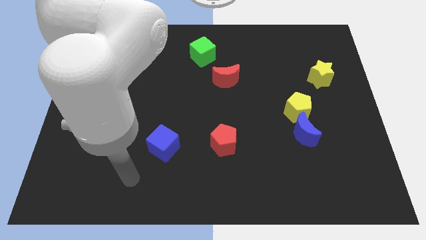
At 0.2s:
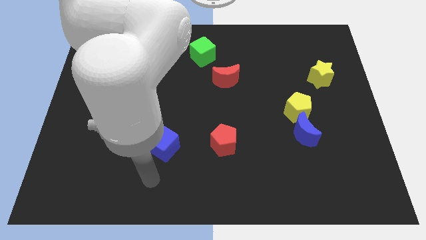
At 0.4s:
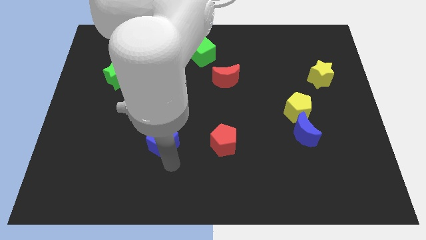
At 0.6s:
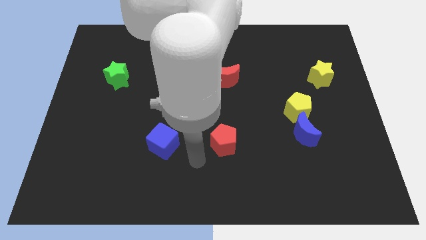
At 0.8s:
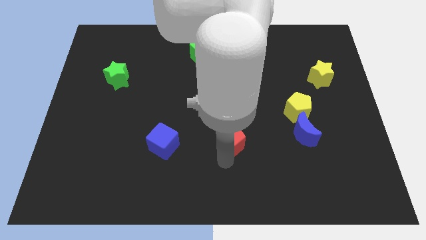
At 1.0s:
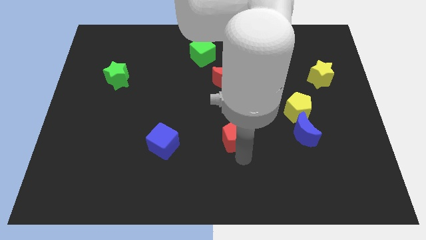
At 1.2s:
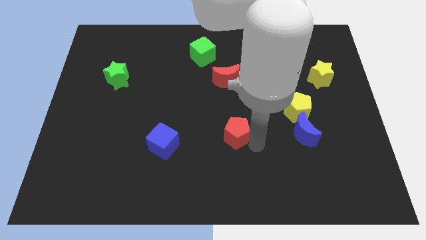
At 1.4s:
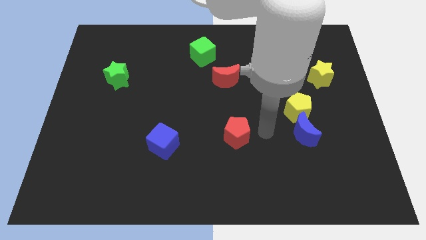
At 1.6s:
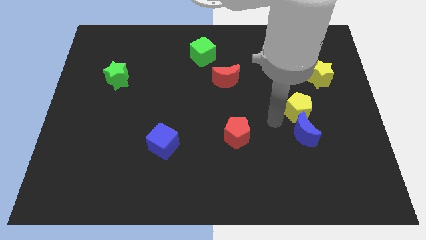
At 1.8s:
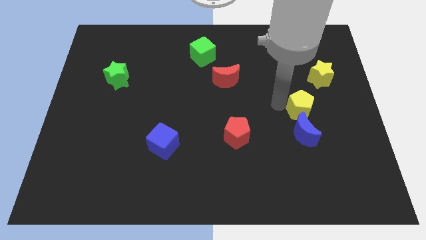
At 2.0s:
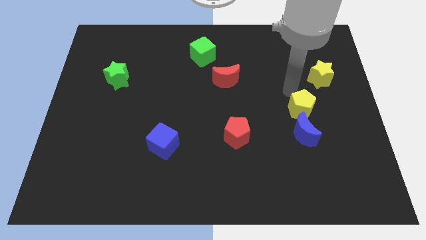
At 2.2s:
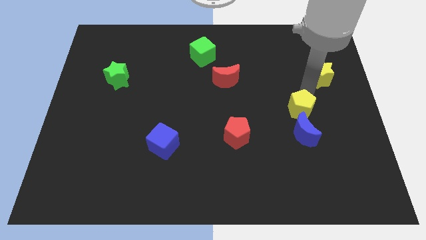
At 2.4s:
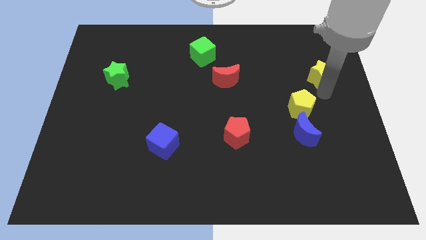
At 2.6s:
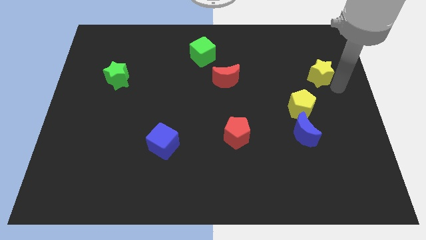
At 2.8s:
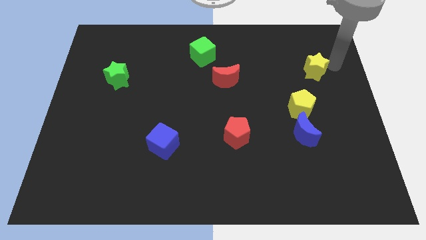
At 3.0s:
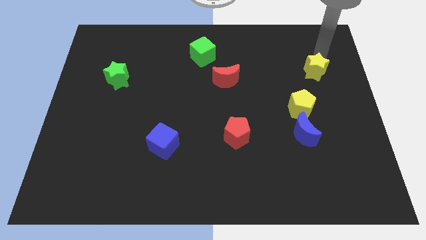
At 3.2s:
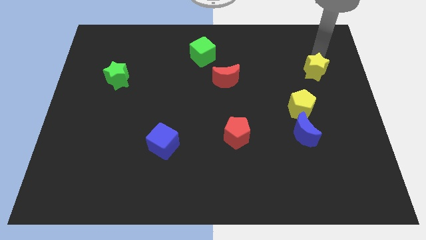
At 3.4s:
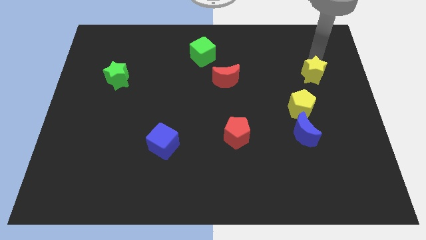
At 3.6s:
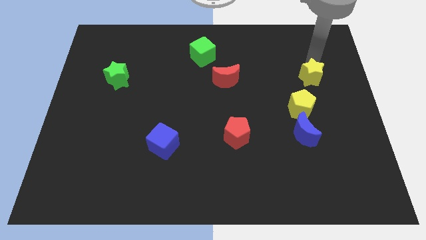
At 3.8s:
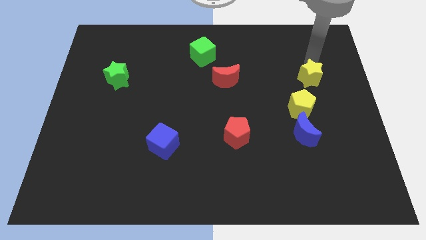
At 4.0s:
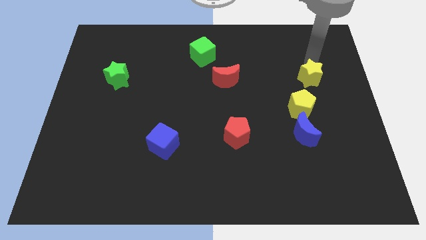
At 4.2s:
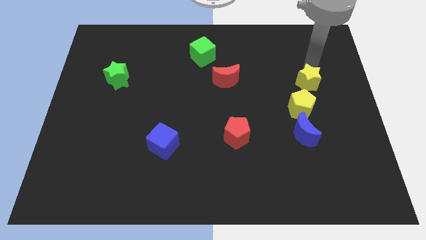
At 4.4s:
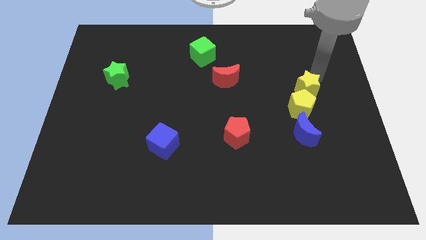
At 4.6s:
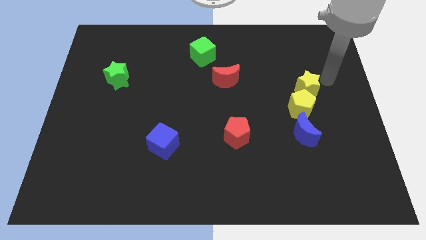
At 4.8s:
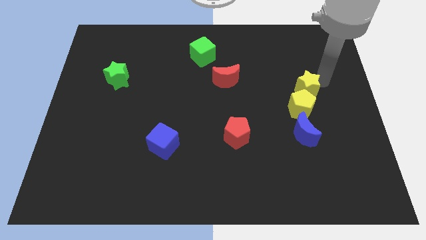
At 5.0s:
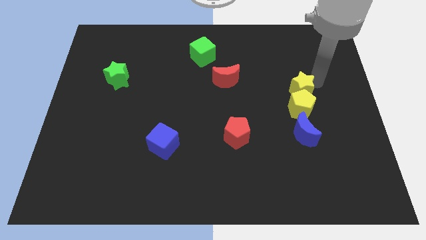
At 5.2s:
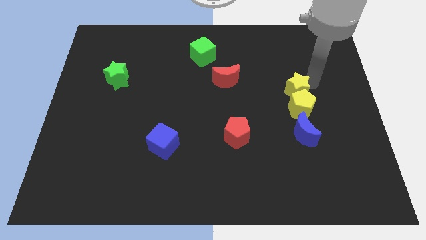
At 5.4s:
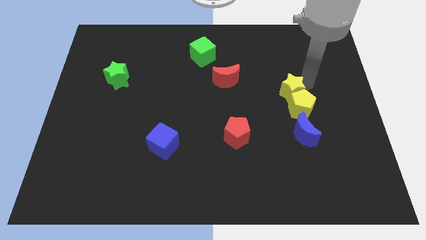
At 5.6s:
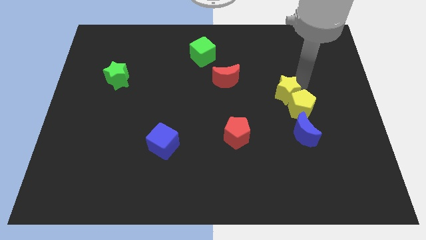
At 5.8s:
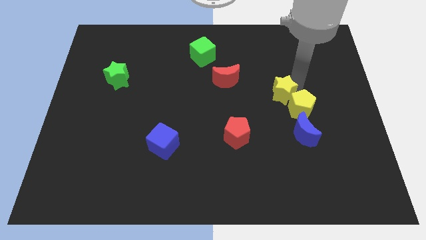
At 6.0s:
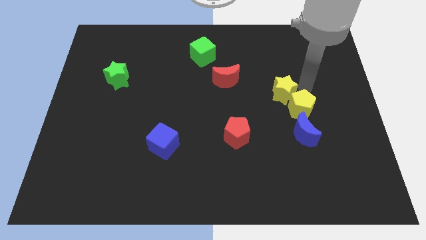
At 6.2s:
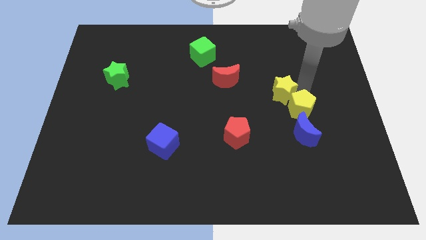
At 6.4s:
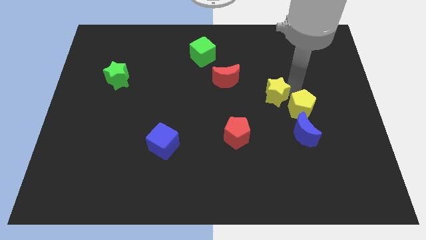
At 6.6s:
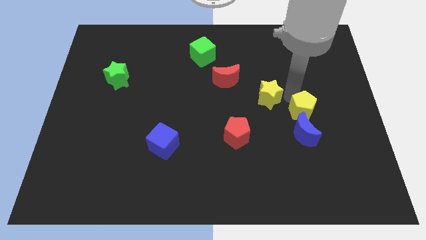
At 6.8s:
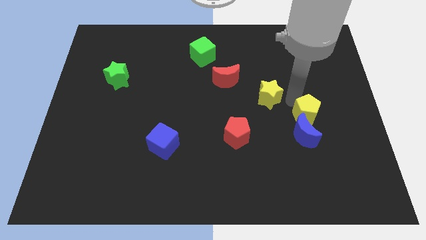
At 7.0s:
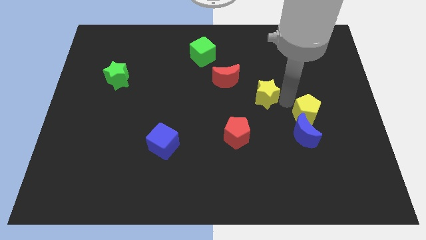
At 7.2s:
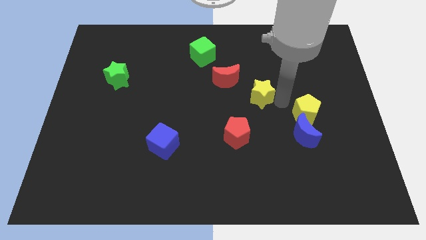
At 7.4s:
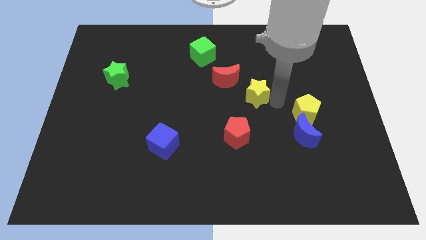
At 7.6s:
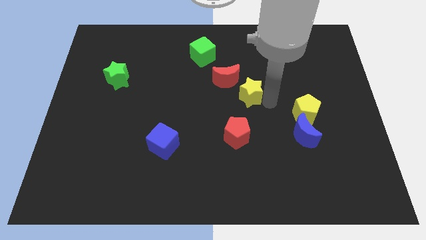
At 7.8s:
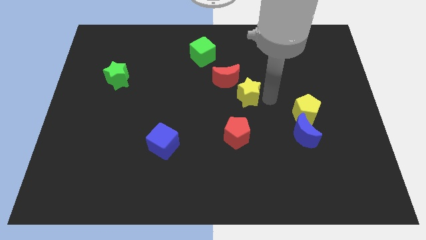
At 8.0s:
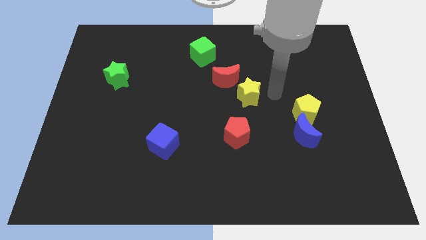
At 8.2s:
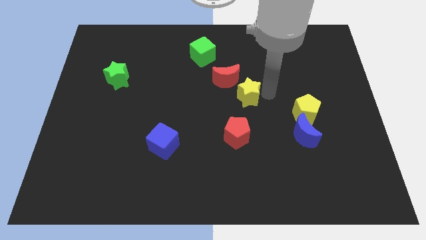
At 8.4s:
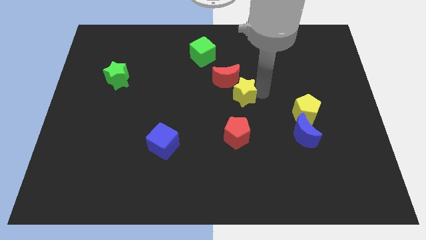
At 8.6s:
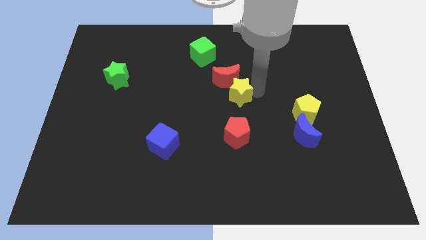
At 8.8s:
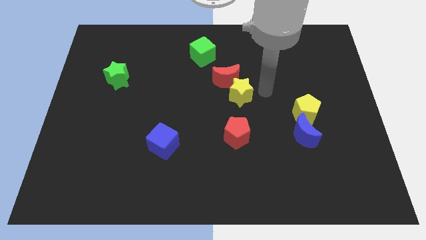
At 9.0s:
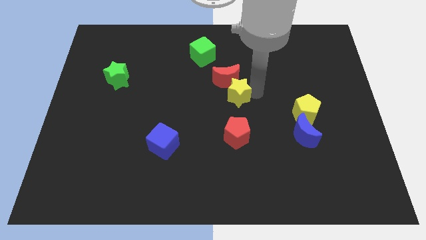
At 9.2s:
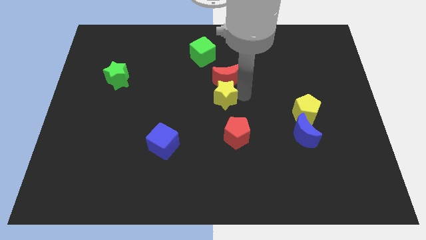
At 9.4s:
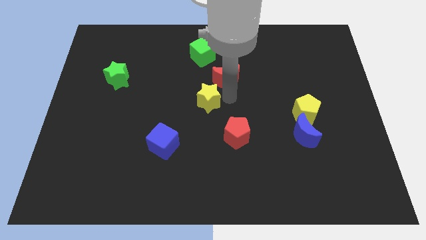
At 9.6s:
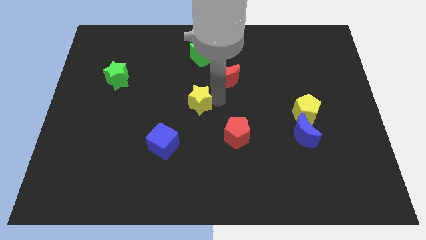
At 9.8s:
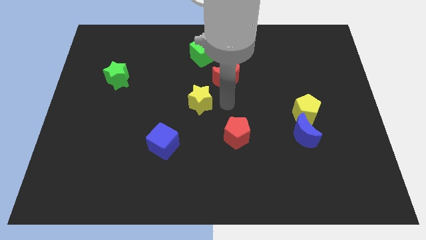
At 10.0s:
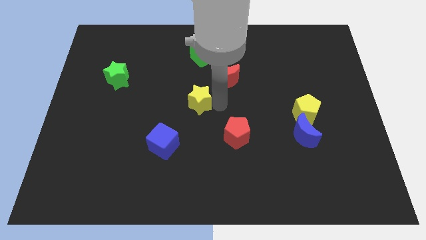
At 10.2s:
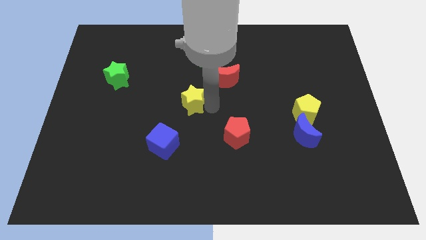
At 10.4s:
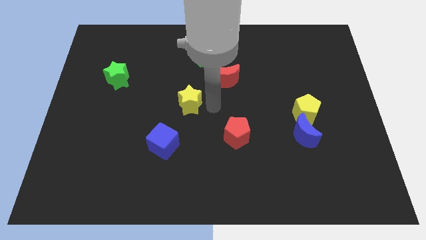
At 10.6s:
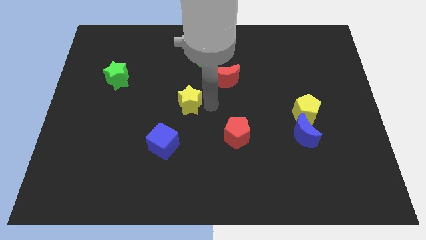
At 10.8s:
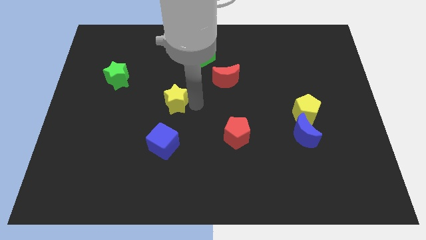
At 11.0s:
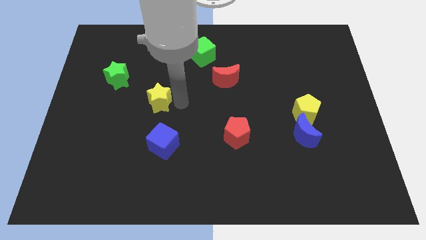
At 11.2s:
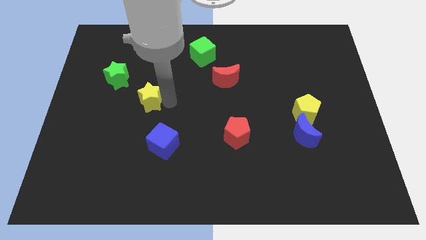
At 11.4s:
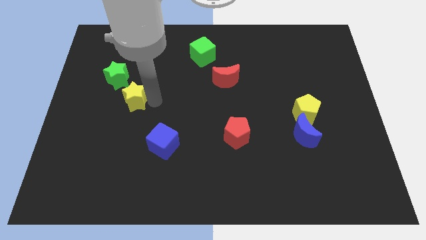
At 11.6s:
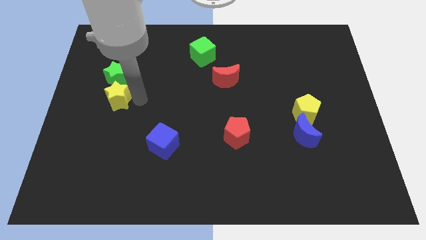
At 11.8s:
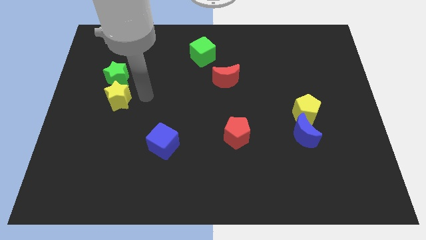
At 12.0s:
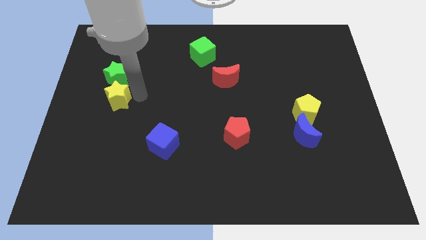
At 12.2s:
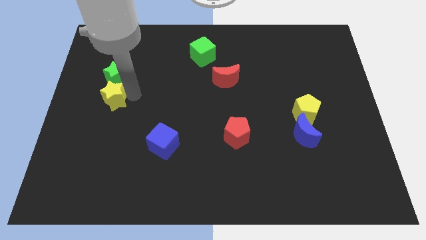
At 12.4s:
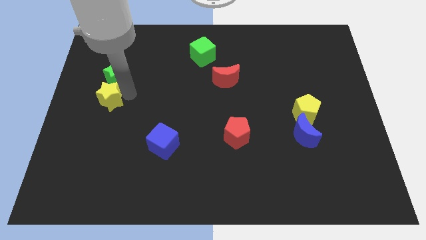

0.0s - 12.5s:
push the yellow star to the left side
